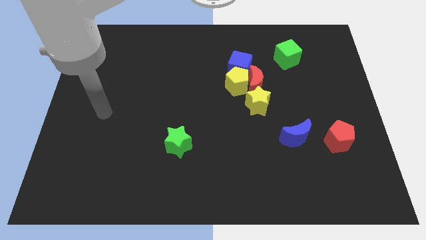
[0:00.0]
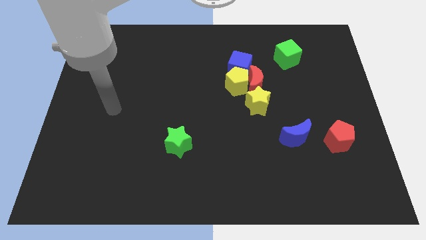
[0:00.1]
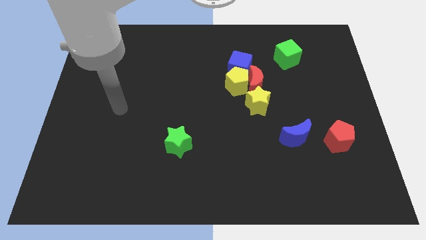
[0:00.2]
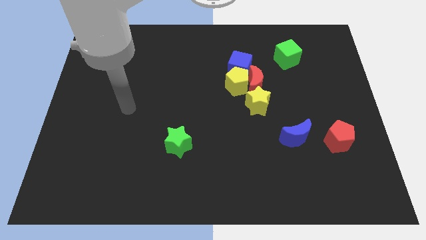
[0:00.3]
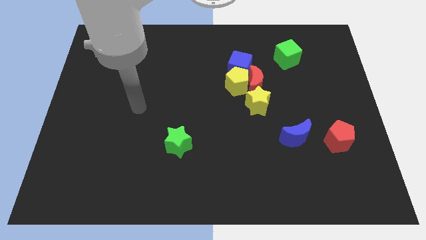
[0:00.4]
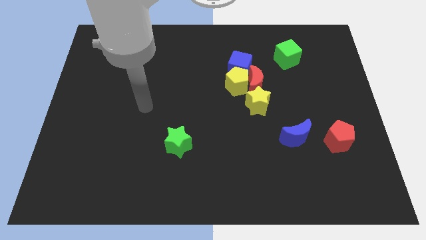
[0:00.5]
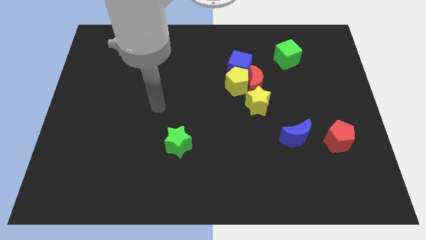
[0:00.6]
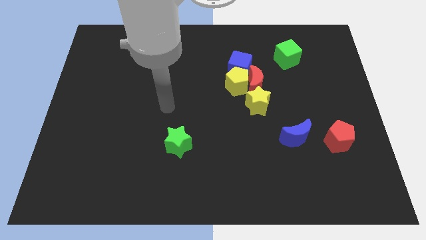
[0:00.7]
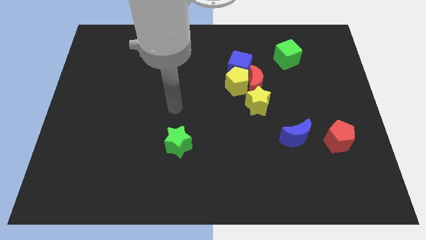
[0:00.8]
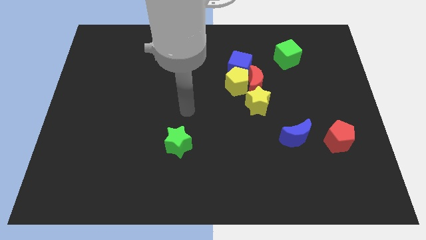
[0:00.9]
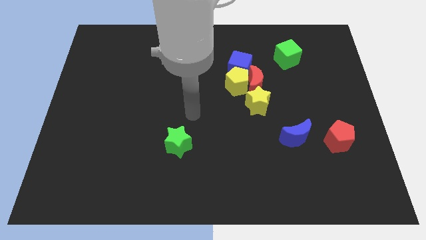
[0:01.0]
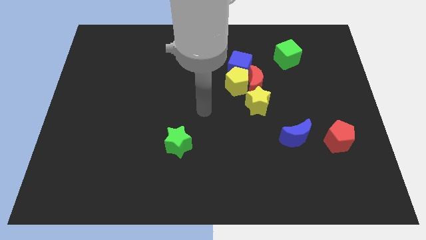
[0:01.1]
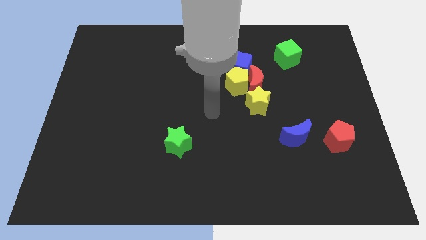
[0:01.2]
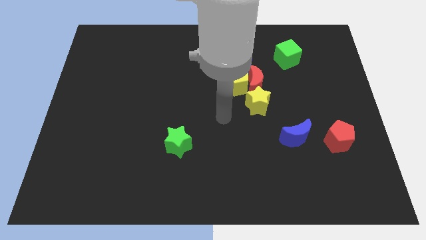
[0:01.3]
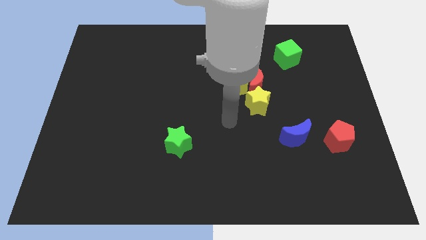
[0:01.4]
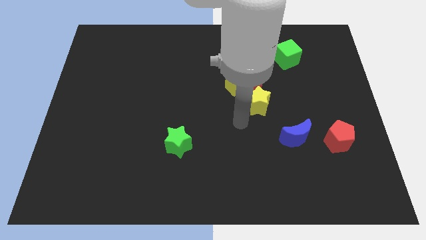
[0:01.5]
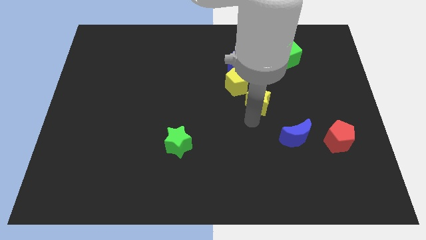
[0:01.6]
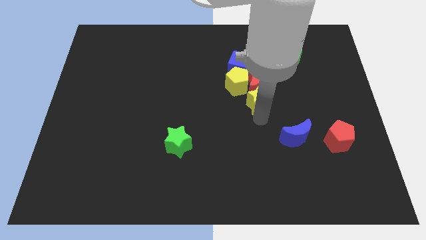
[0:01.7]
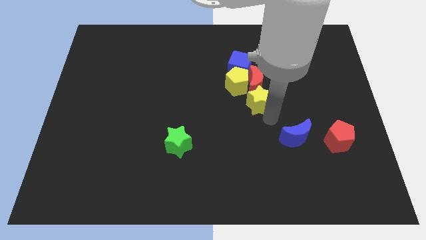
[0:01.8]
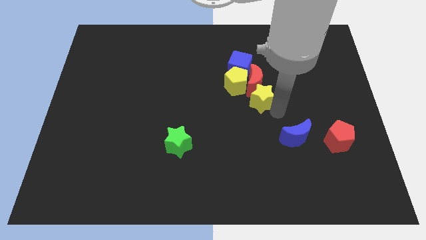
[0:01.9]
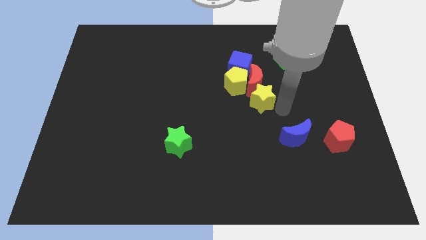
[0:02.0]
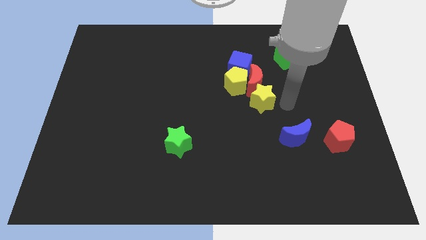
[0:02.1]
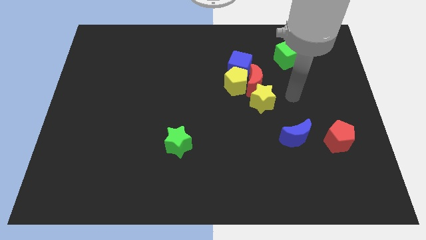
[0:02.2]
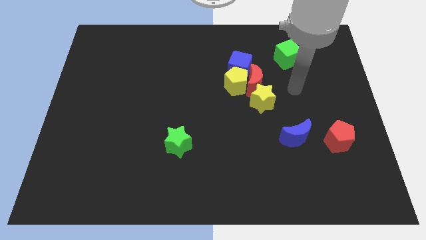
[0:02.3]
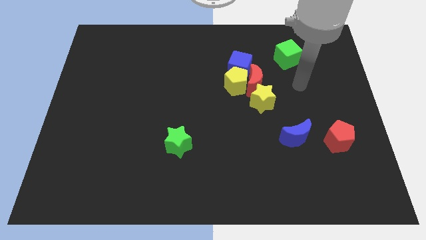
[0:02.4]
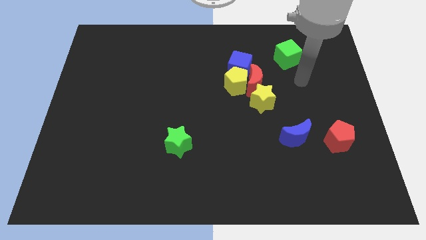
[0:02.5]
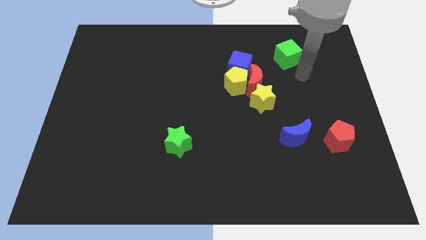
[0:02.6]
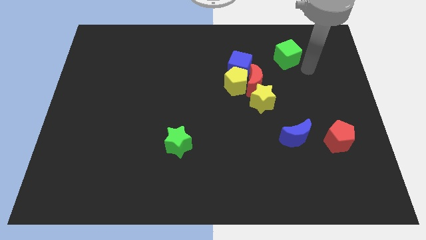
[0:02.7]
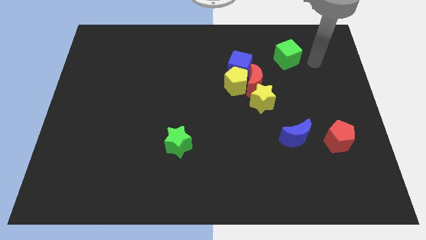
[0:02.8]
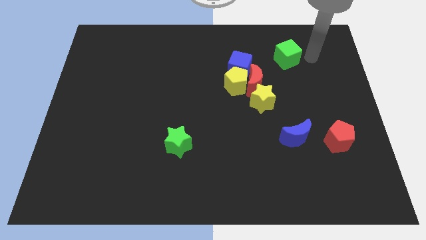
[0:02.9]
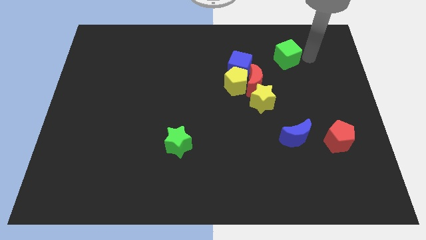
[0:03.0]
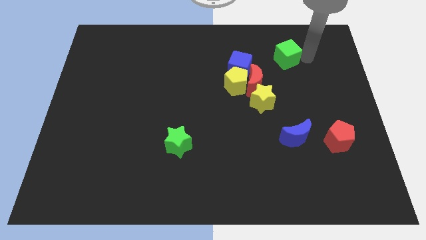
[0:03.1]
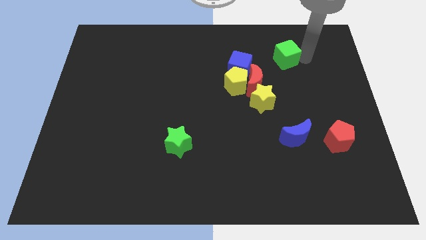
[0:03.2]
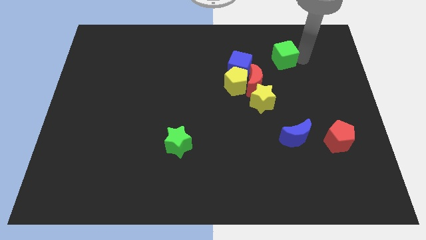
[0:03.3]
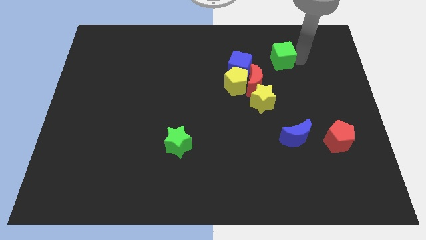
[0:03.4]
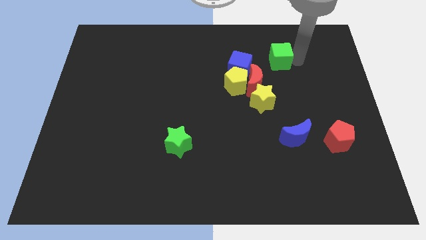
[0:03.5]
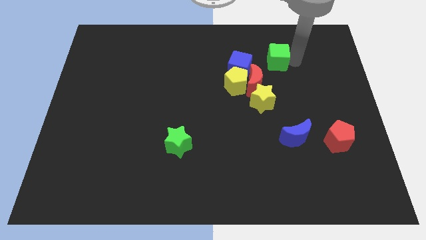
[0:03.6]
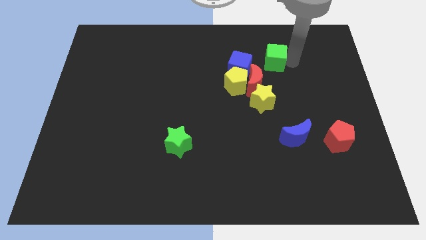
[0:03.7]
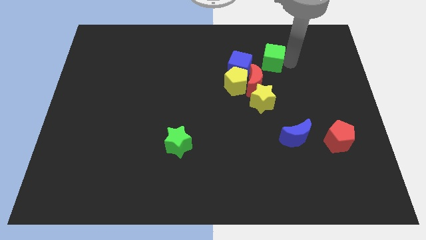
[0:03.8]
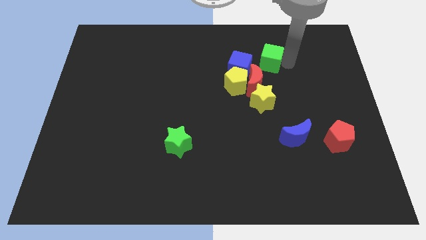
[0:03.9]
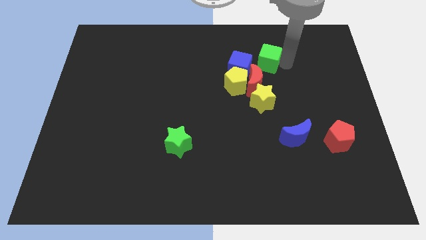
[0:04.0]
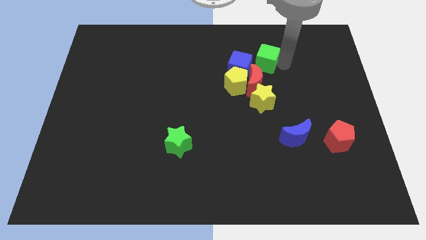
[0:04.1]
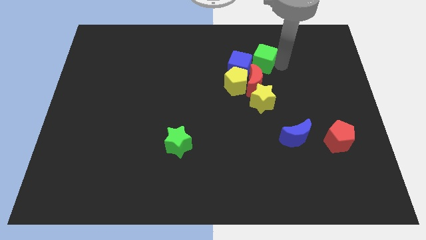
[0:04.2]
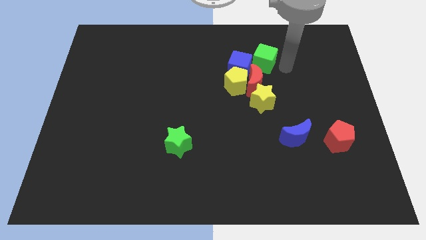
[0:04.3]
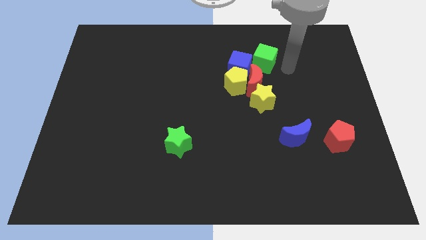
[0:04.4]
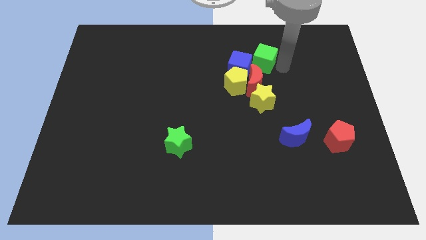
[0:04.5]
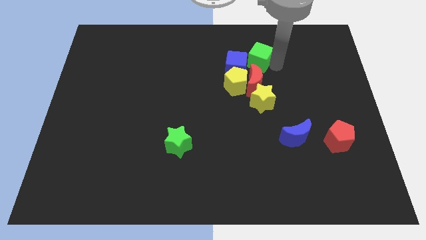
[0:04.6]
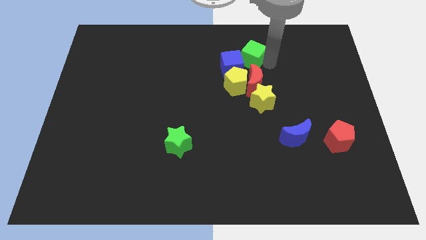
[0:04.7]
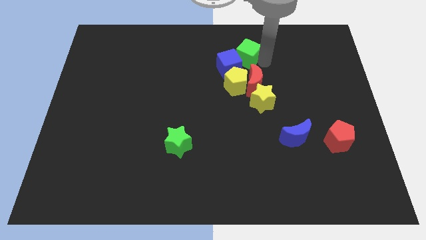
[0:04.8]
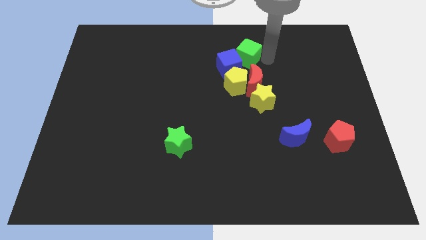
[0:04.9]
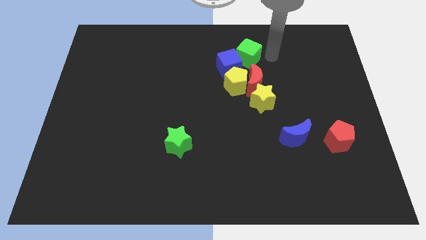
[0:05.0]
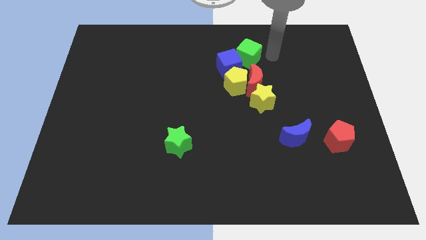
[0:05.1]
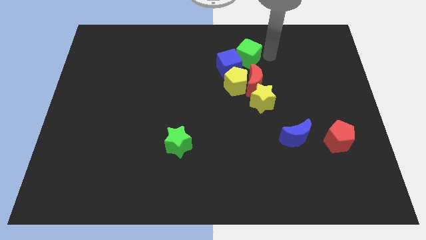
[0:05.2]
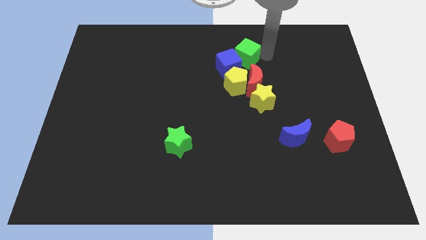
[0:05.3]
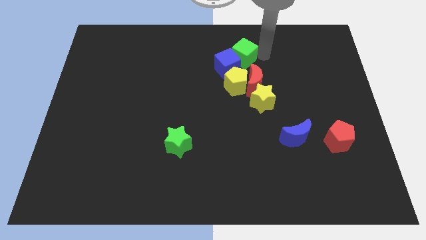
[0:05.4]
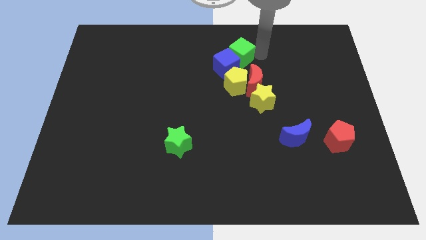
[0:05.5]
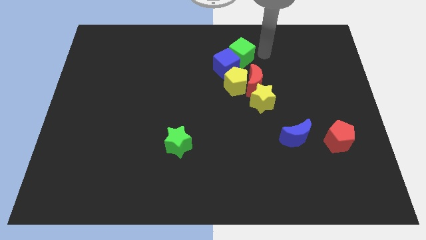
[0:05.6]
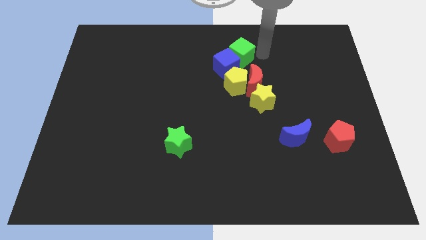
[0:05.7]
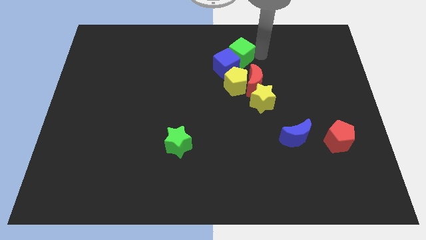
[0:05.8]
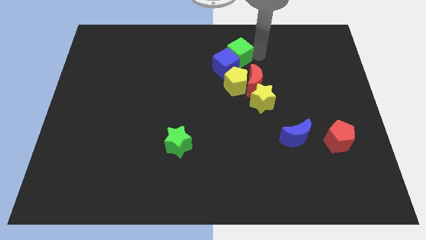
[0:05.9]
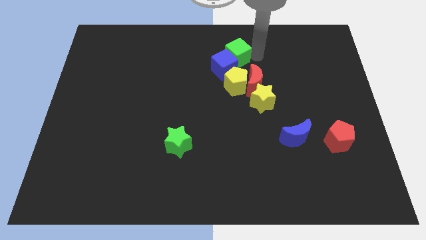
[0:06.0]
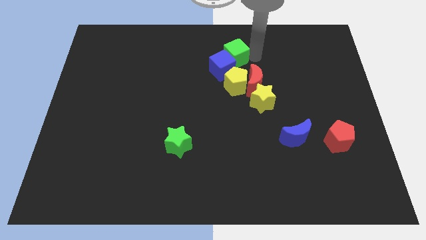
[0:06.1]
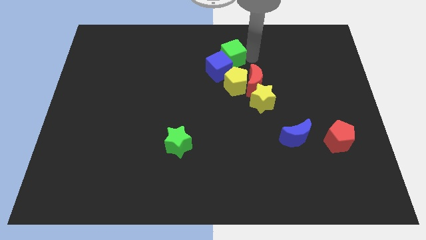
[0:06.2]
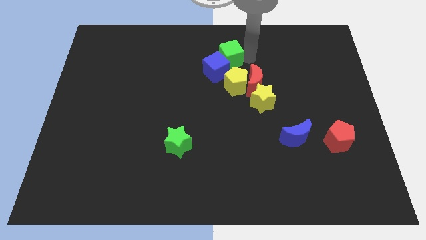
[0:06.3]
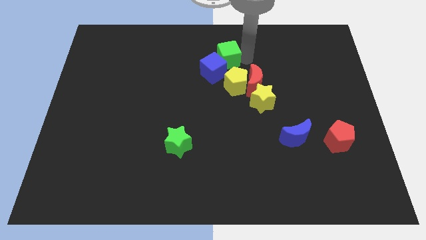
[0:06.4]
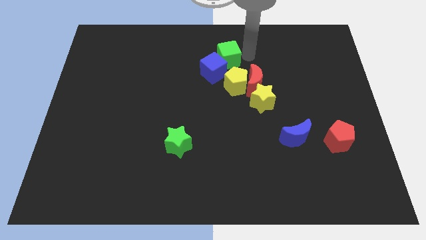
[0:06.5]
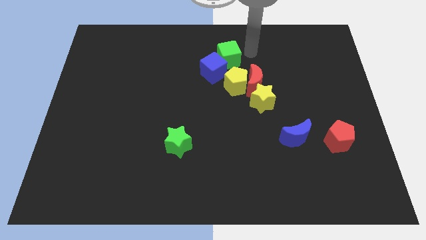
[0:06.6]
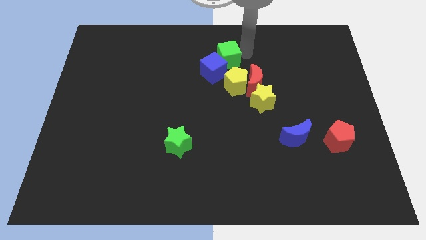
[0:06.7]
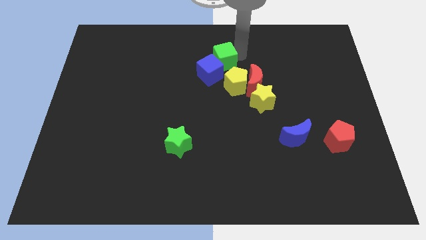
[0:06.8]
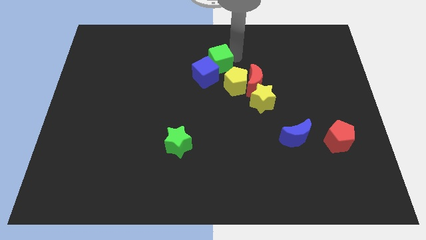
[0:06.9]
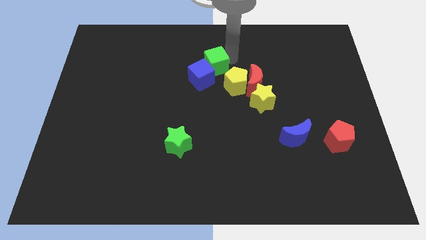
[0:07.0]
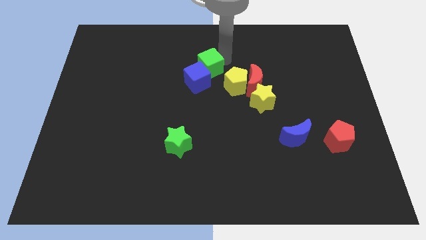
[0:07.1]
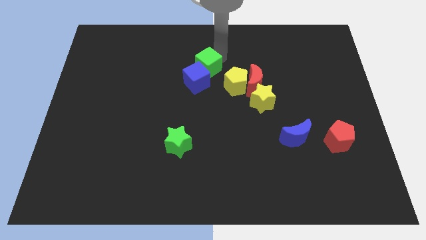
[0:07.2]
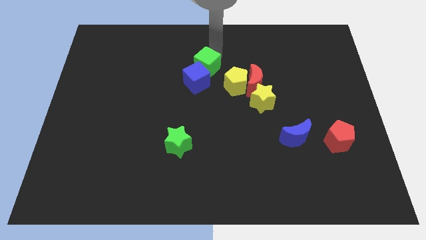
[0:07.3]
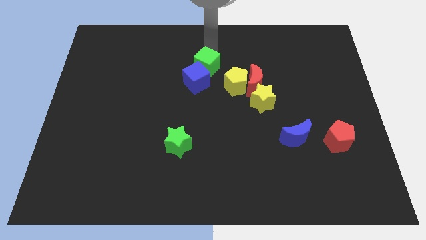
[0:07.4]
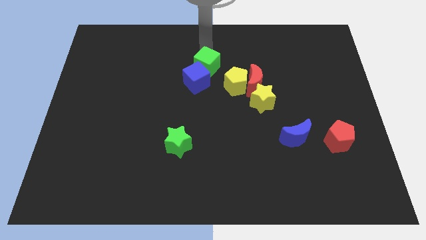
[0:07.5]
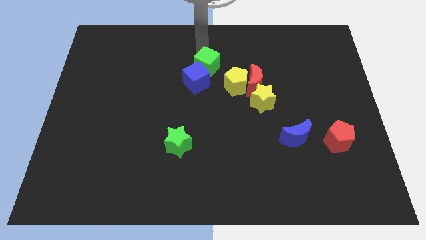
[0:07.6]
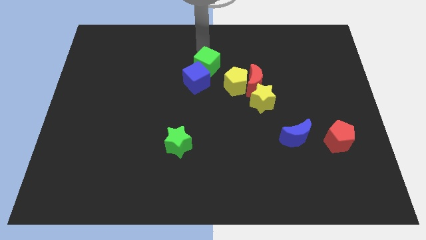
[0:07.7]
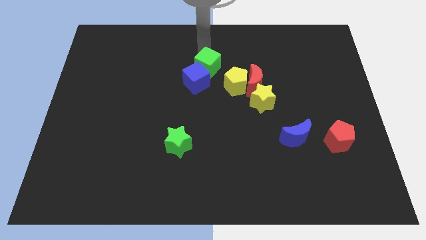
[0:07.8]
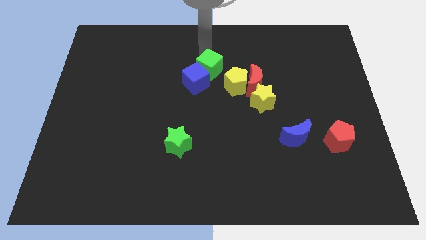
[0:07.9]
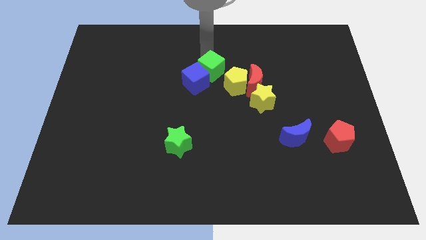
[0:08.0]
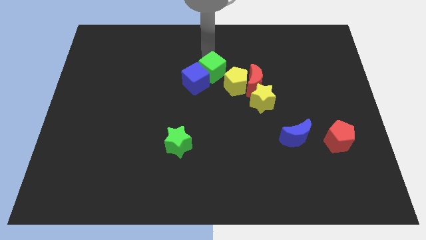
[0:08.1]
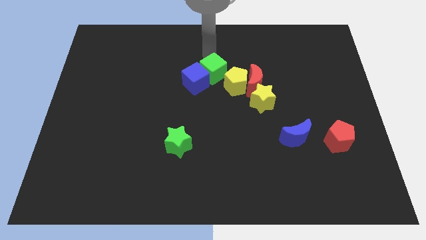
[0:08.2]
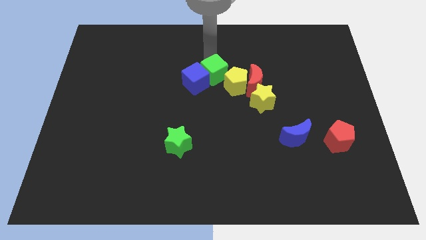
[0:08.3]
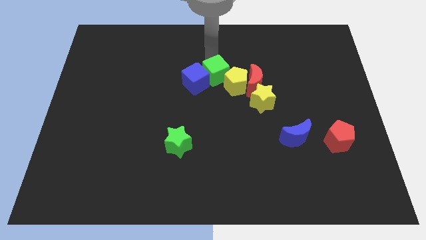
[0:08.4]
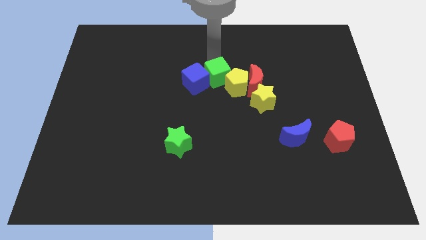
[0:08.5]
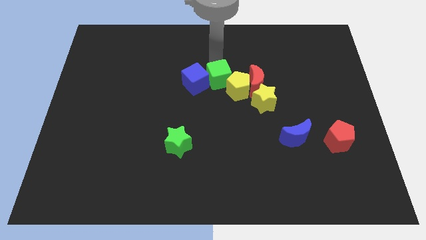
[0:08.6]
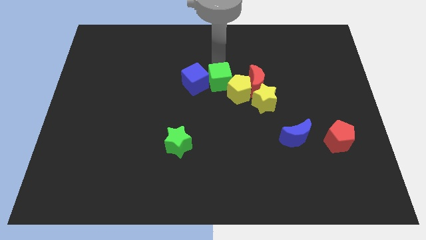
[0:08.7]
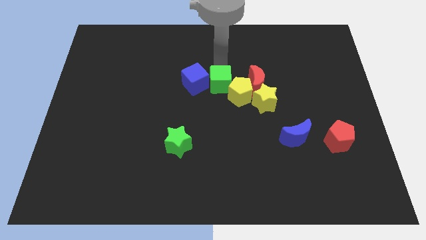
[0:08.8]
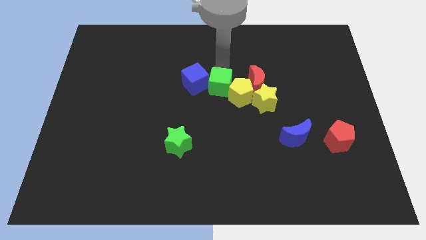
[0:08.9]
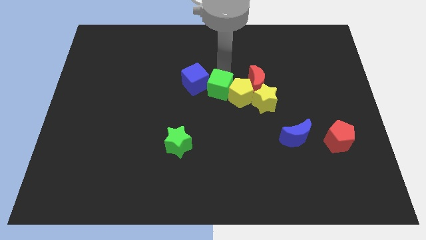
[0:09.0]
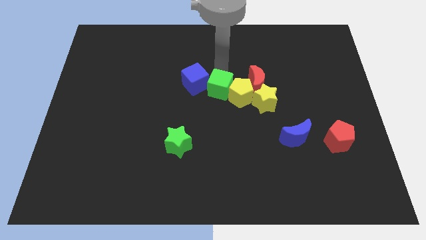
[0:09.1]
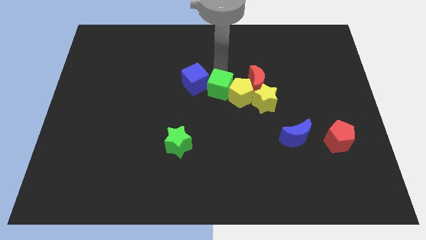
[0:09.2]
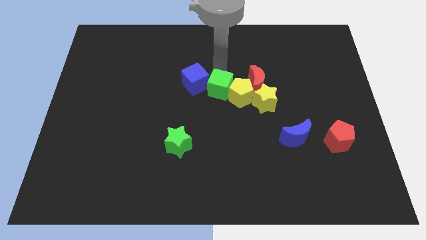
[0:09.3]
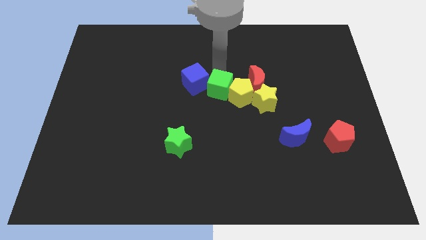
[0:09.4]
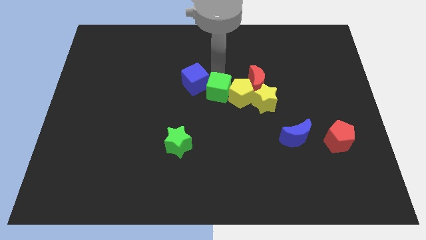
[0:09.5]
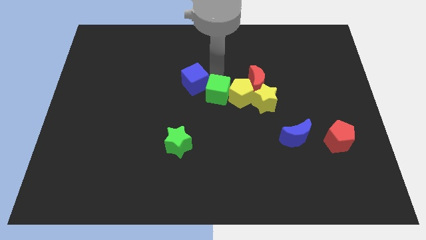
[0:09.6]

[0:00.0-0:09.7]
put the green cube to the bottom left of the yellow pentagon
